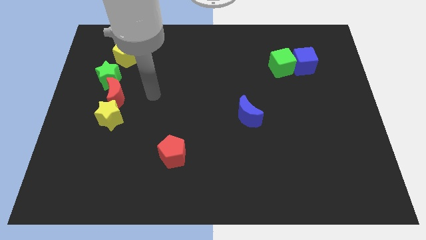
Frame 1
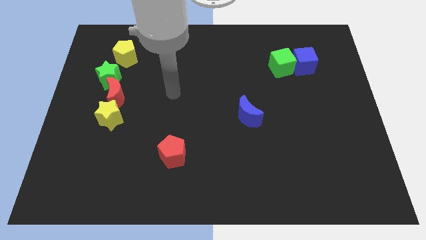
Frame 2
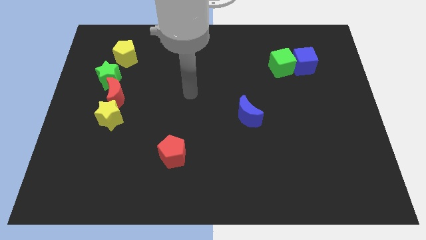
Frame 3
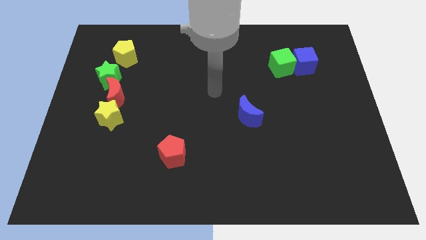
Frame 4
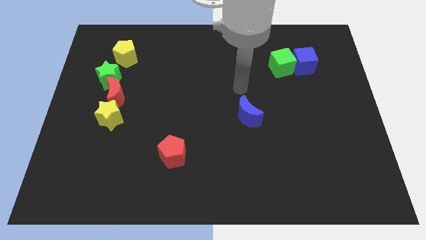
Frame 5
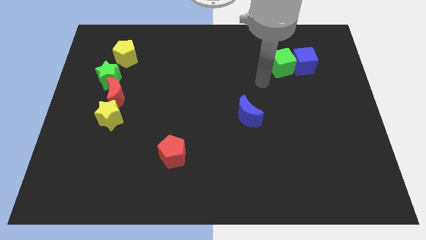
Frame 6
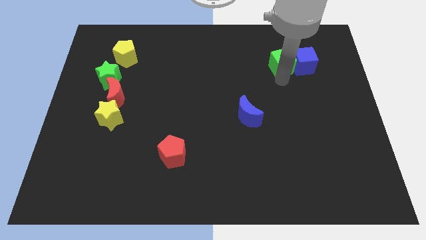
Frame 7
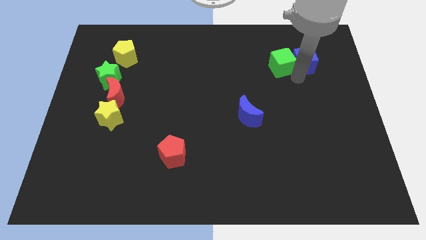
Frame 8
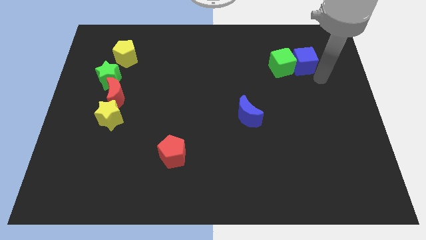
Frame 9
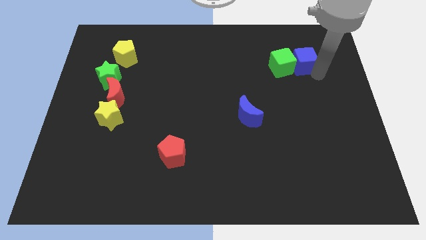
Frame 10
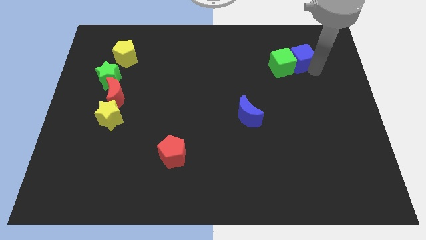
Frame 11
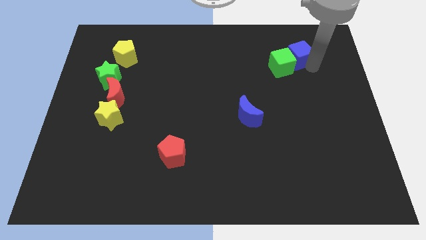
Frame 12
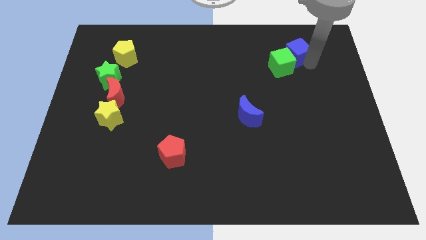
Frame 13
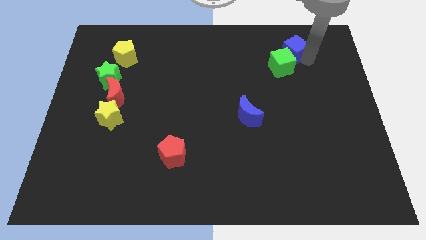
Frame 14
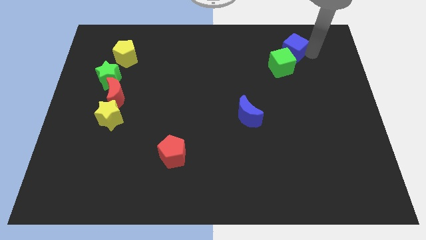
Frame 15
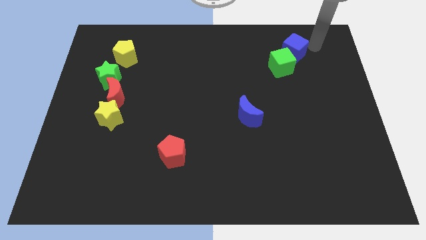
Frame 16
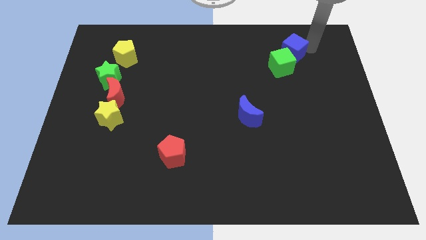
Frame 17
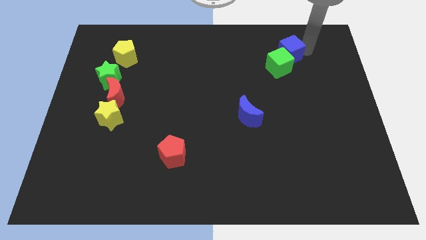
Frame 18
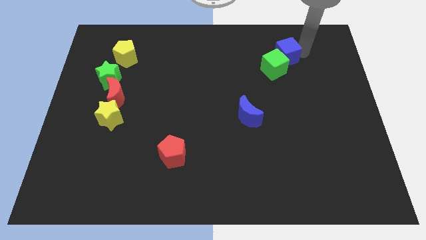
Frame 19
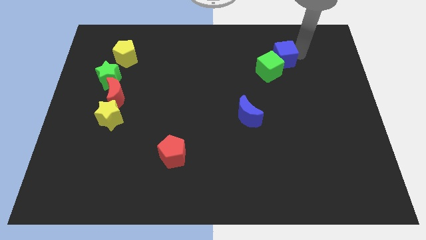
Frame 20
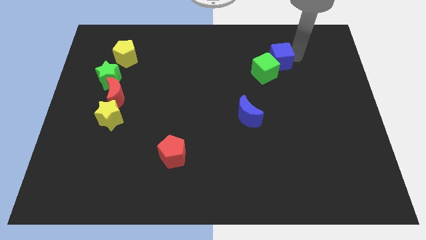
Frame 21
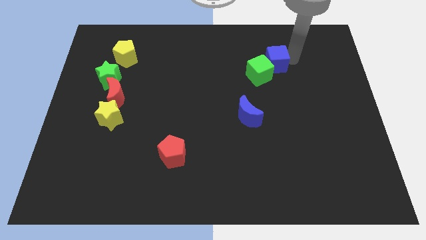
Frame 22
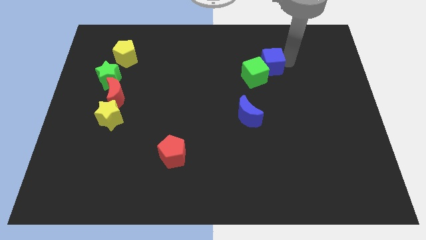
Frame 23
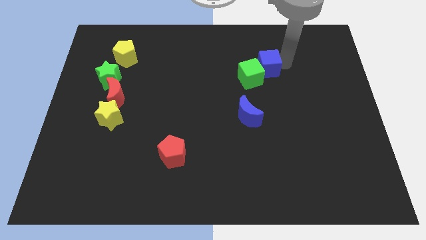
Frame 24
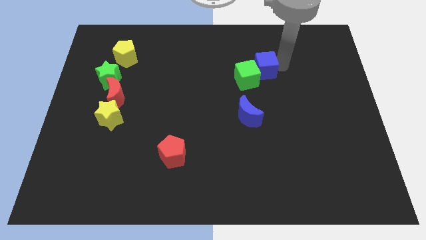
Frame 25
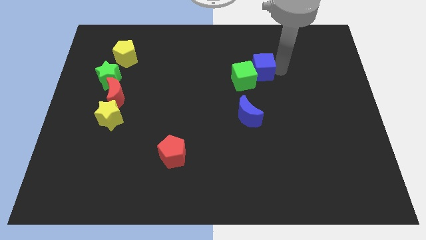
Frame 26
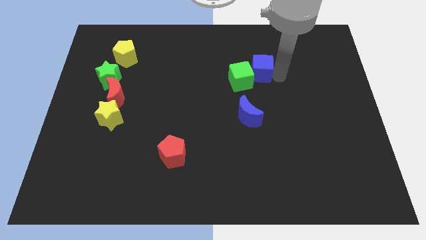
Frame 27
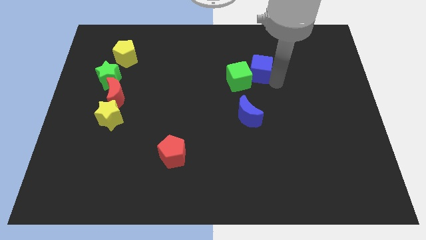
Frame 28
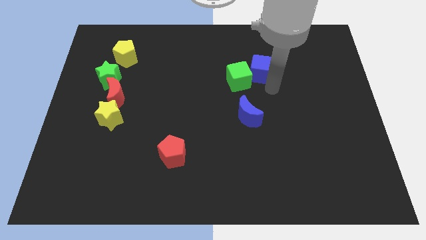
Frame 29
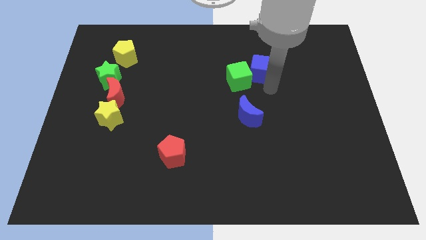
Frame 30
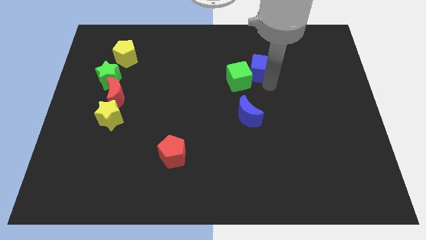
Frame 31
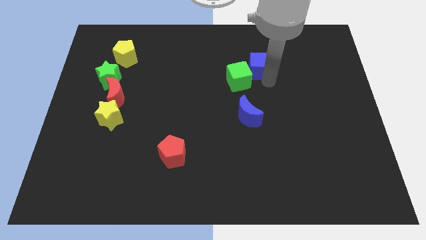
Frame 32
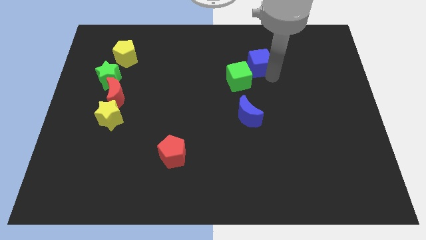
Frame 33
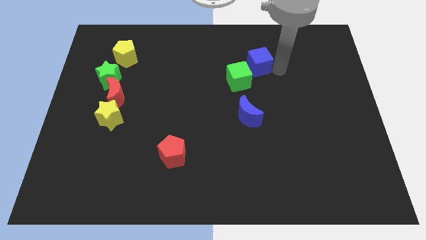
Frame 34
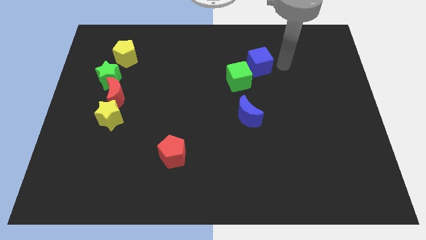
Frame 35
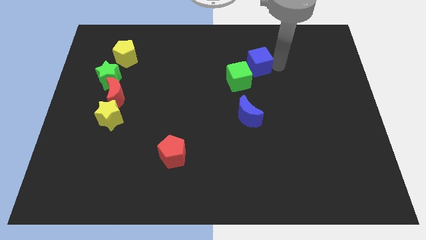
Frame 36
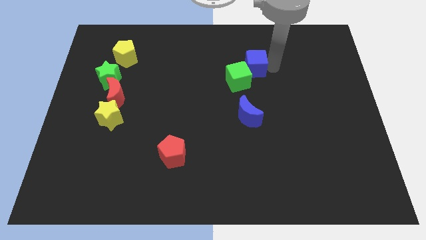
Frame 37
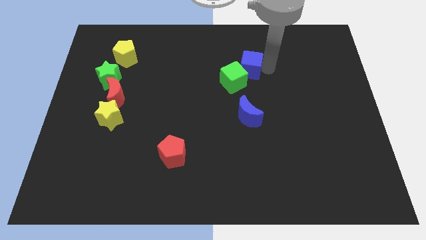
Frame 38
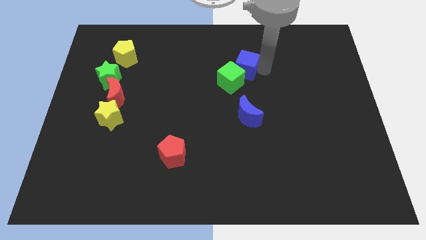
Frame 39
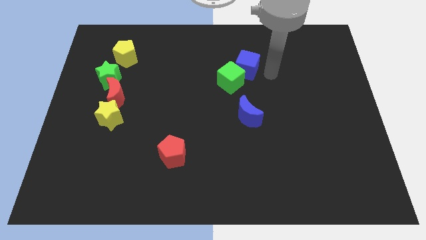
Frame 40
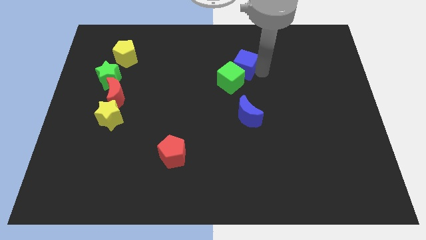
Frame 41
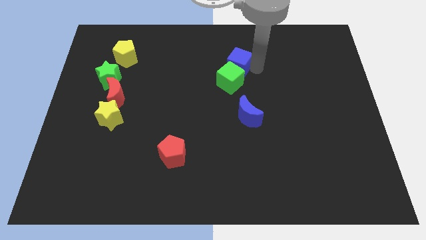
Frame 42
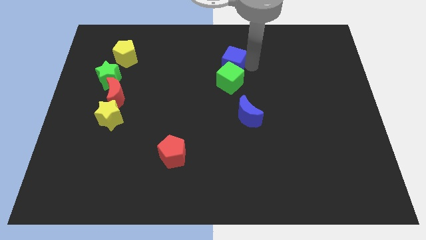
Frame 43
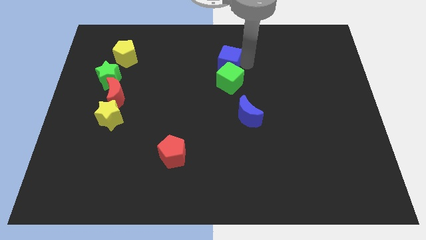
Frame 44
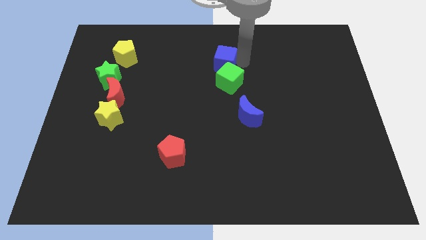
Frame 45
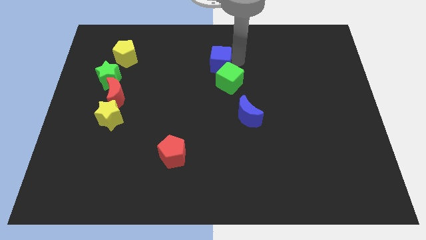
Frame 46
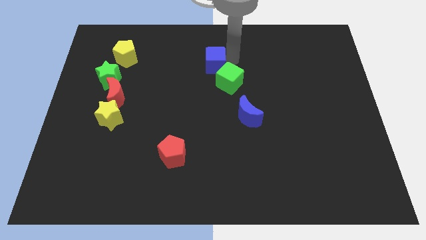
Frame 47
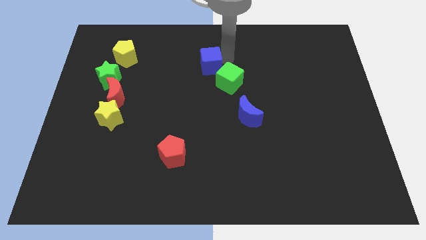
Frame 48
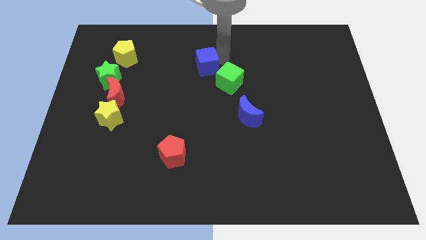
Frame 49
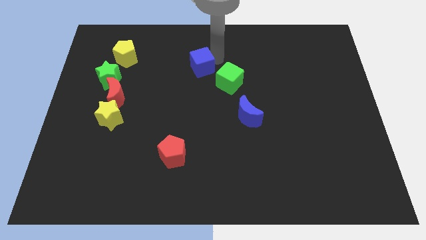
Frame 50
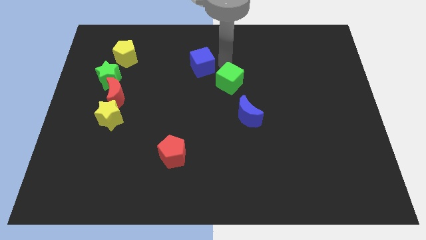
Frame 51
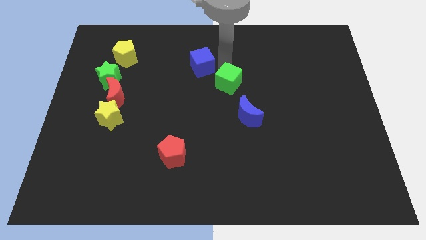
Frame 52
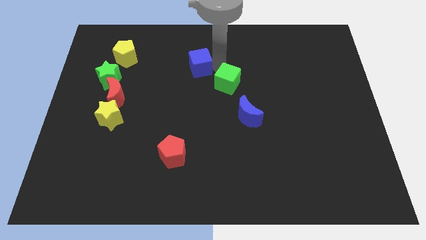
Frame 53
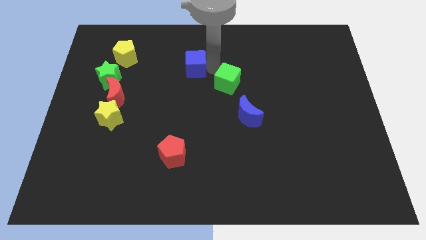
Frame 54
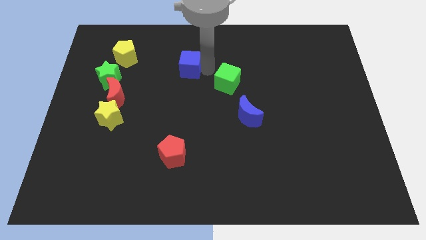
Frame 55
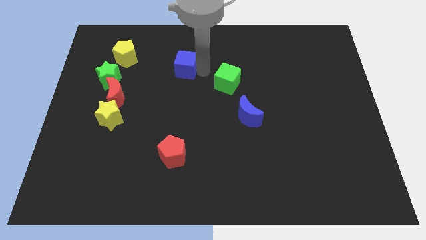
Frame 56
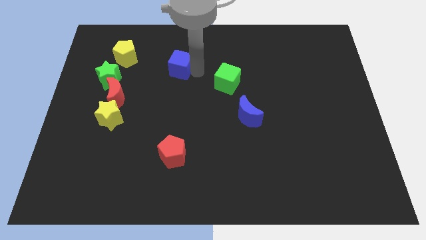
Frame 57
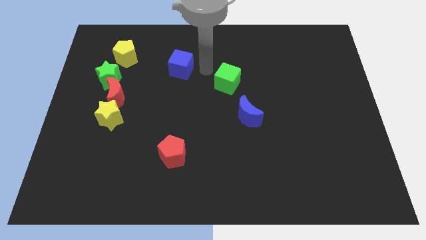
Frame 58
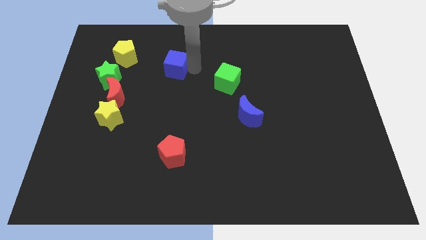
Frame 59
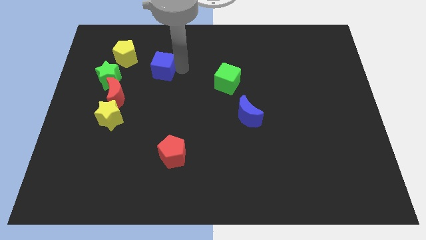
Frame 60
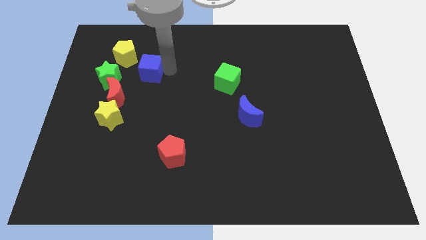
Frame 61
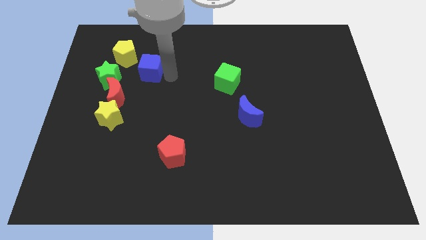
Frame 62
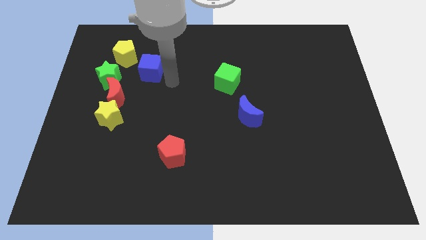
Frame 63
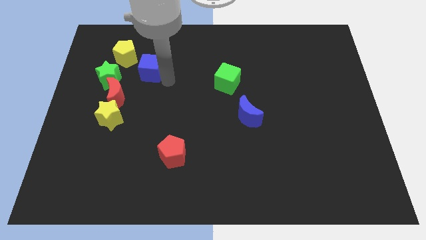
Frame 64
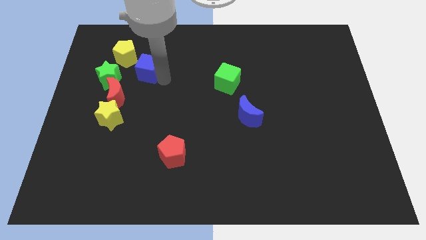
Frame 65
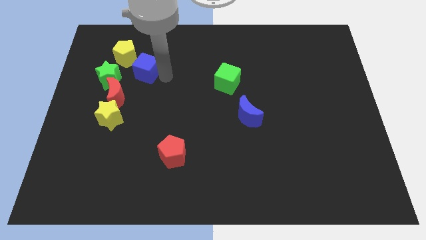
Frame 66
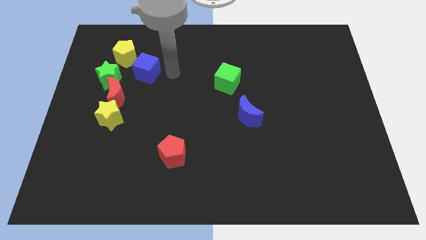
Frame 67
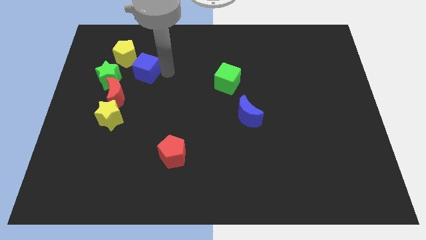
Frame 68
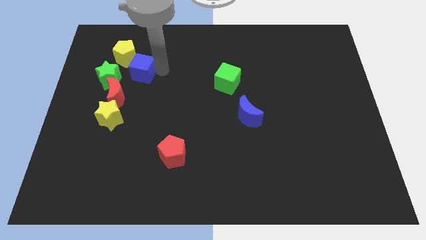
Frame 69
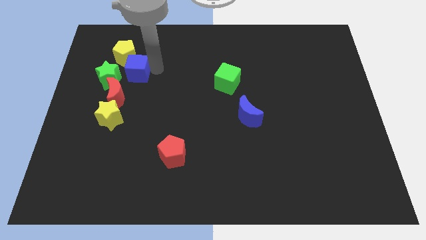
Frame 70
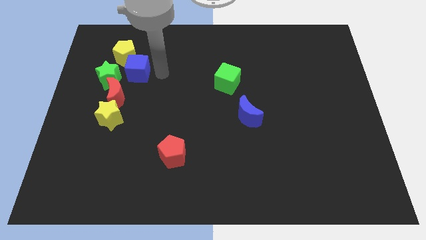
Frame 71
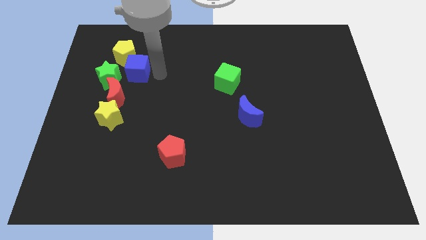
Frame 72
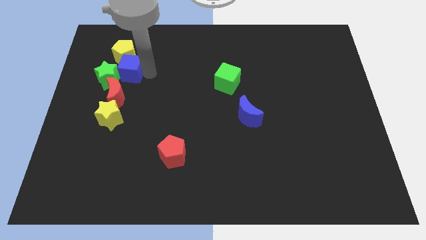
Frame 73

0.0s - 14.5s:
slide the blue cube above the yellow star

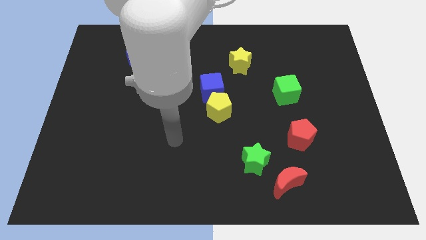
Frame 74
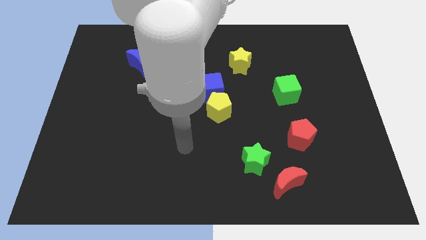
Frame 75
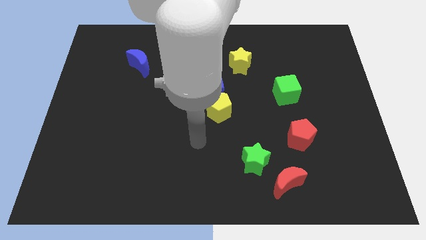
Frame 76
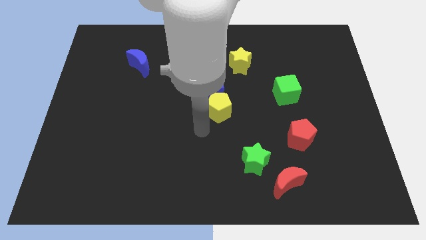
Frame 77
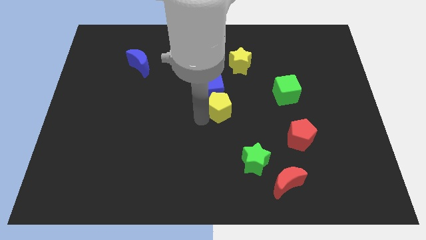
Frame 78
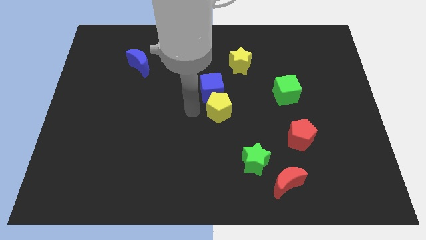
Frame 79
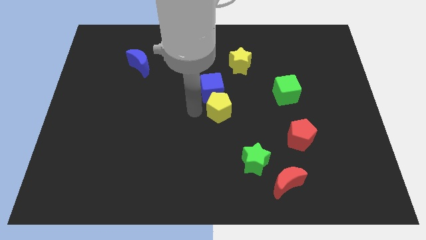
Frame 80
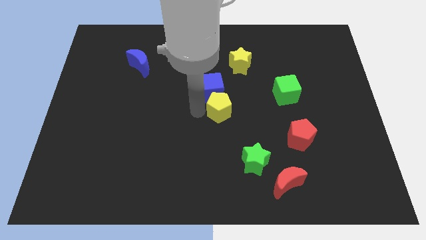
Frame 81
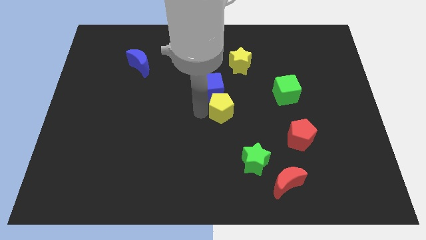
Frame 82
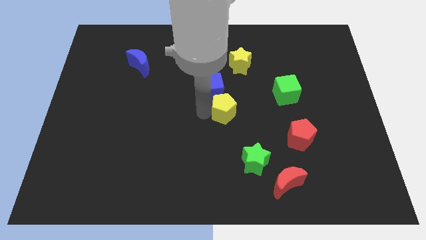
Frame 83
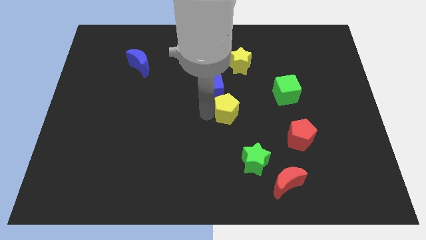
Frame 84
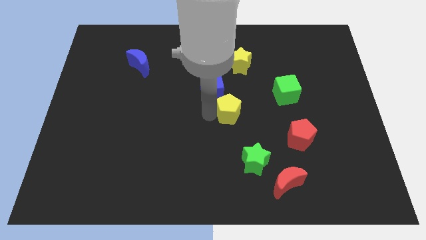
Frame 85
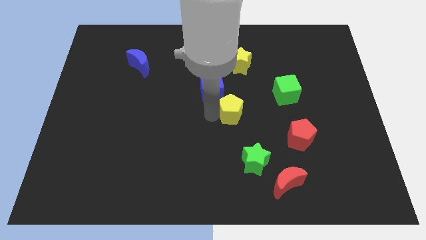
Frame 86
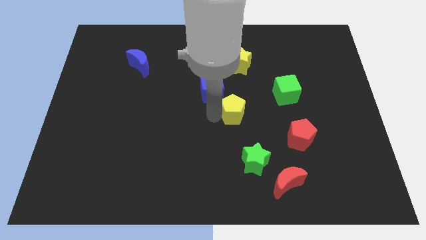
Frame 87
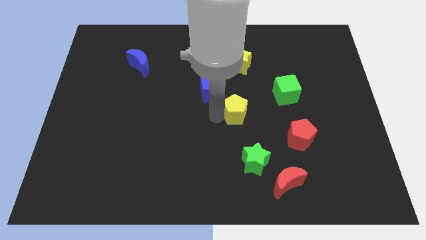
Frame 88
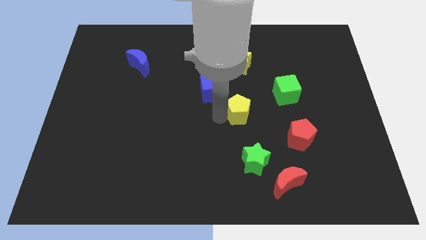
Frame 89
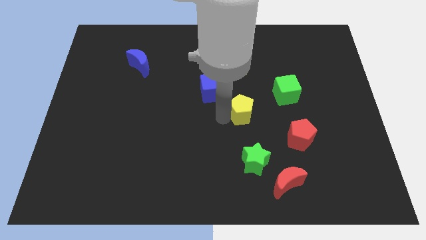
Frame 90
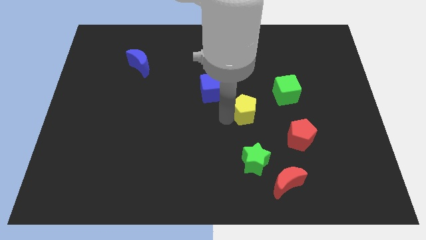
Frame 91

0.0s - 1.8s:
put the yellow pentagon diagonally down and to the left of the green cube
